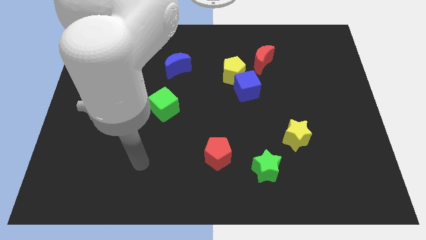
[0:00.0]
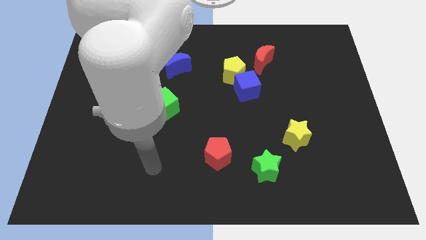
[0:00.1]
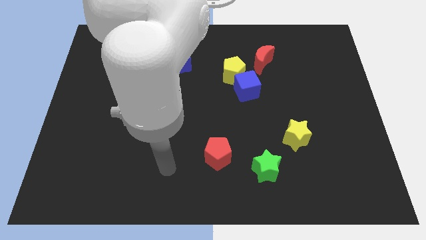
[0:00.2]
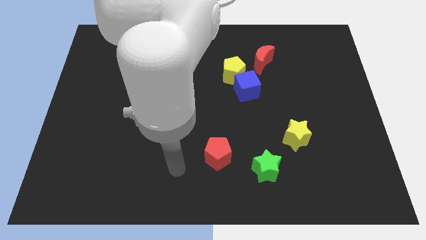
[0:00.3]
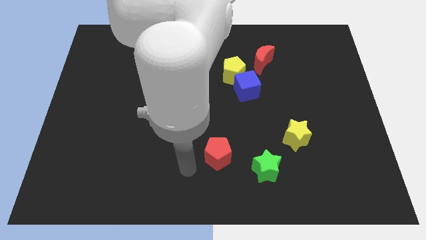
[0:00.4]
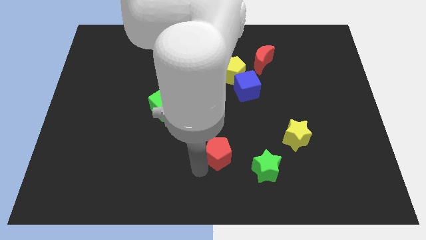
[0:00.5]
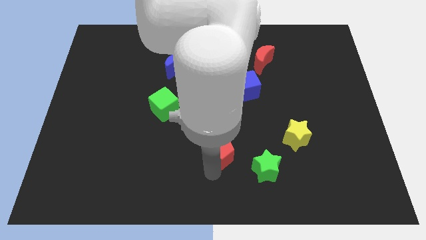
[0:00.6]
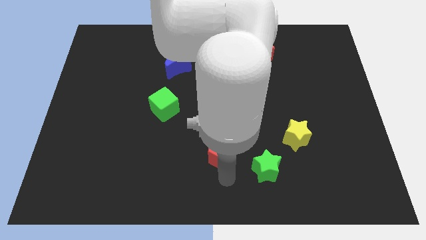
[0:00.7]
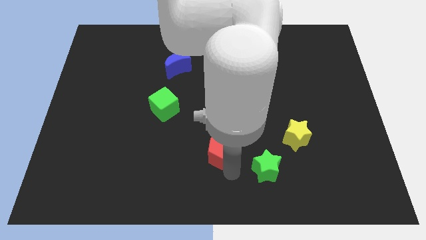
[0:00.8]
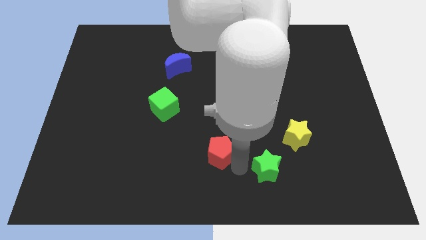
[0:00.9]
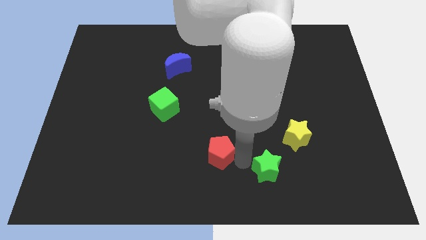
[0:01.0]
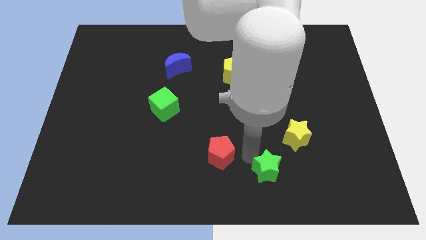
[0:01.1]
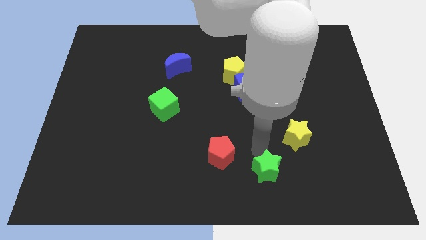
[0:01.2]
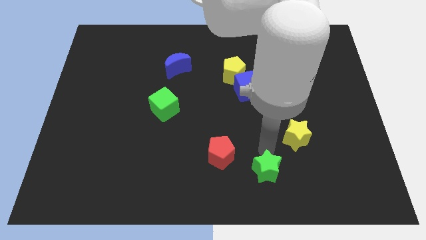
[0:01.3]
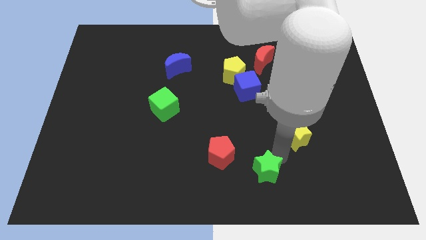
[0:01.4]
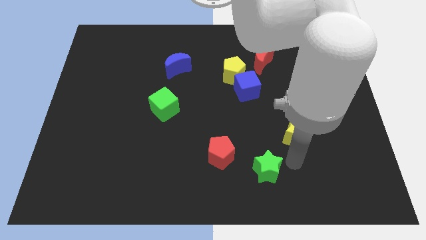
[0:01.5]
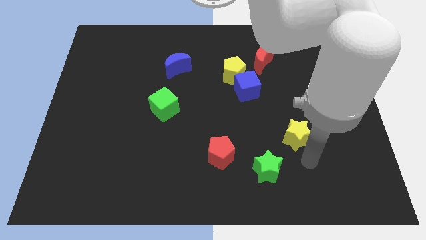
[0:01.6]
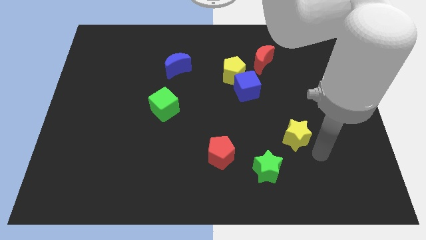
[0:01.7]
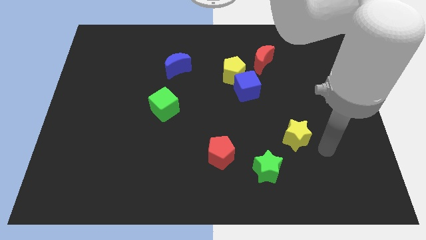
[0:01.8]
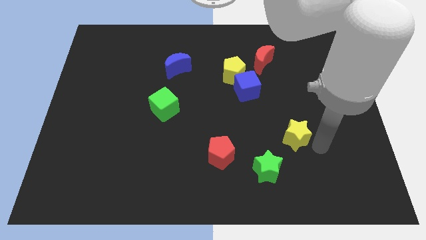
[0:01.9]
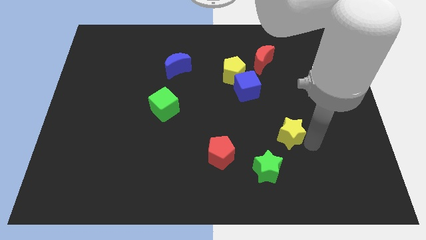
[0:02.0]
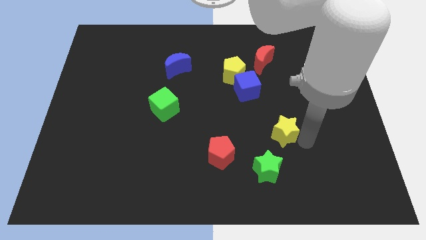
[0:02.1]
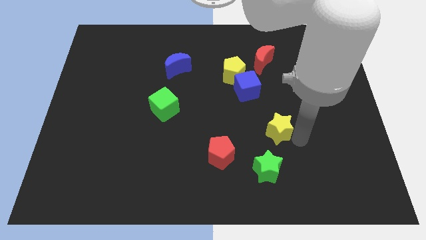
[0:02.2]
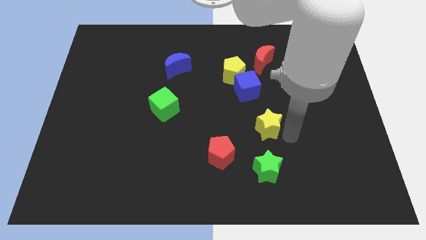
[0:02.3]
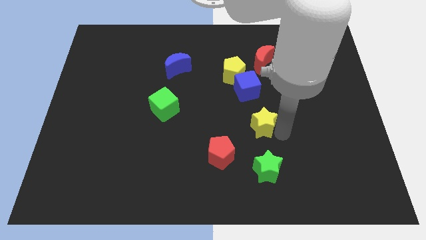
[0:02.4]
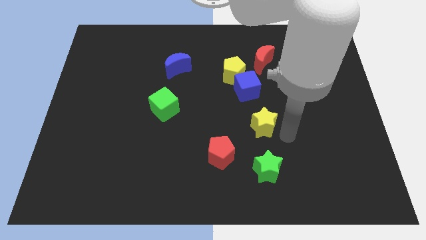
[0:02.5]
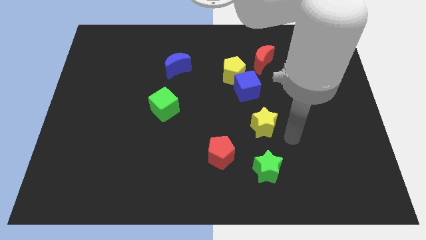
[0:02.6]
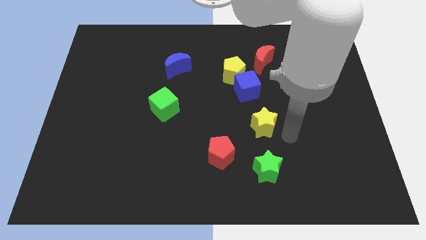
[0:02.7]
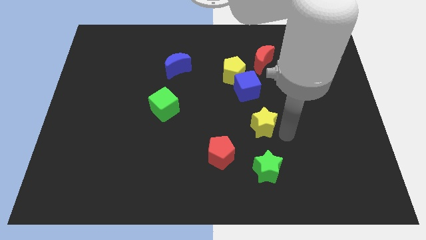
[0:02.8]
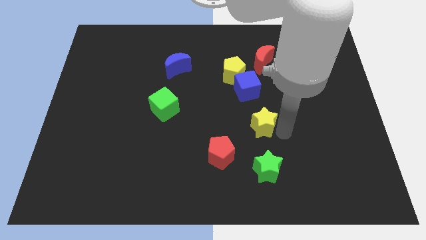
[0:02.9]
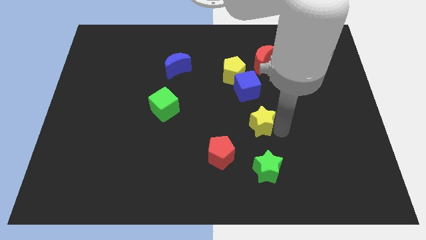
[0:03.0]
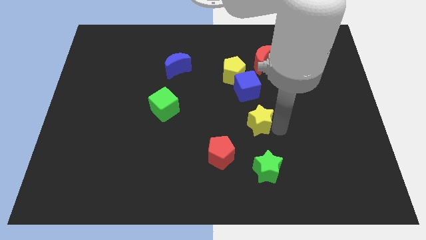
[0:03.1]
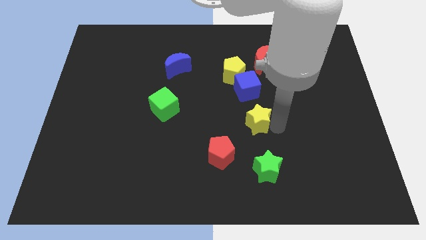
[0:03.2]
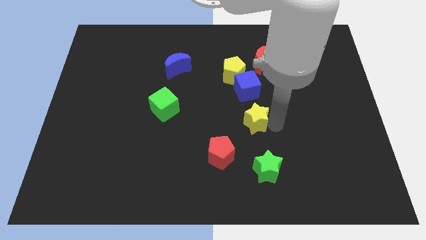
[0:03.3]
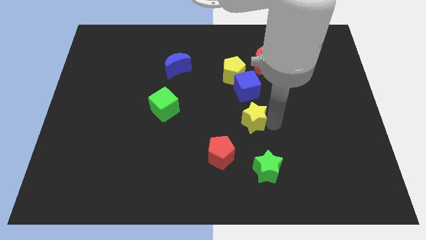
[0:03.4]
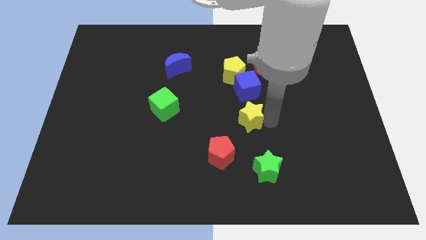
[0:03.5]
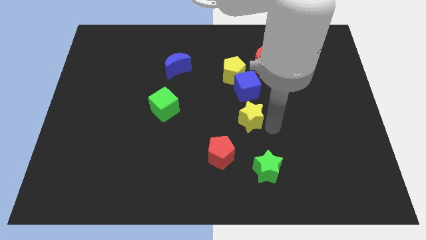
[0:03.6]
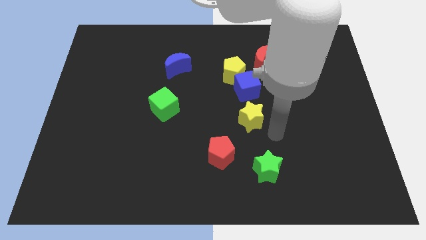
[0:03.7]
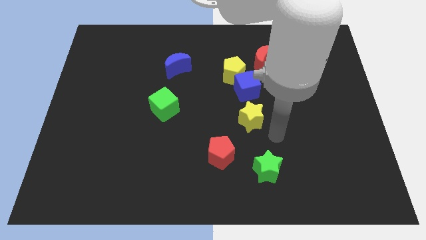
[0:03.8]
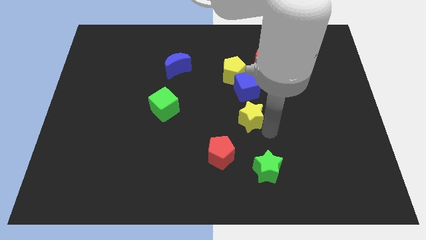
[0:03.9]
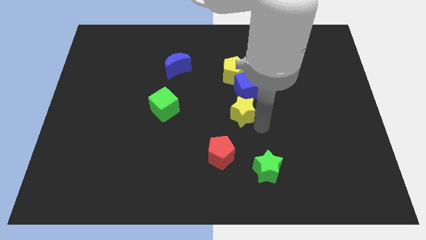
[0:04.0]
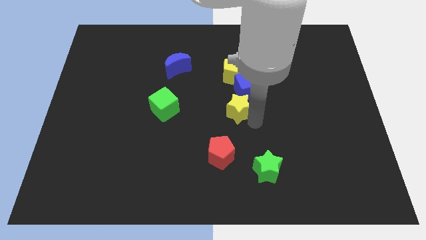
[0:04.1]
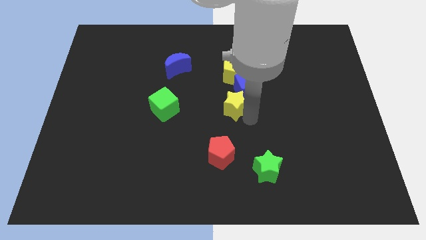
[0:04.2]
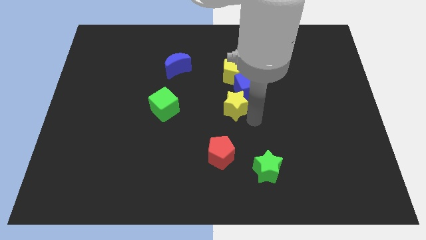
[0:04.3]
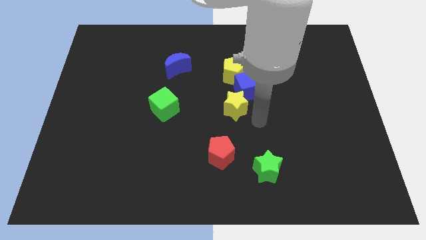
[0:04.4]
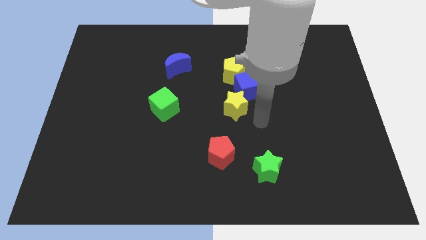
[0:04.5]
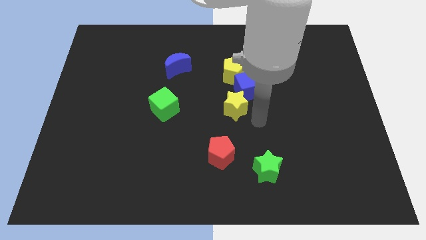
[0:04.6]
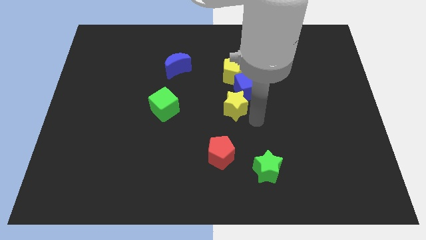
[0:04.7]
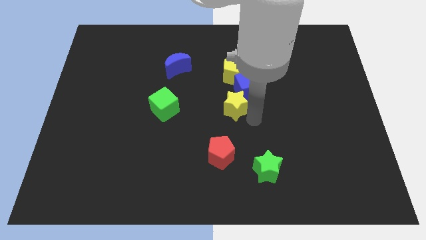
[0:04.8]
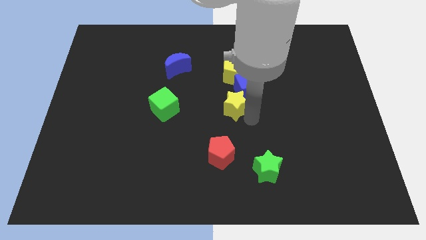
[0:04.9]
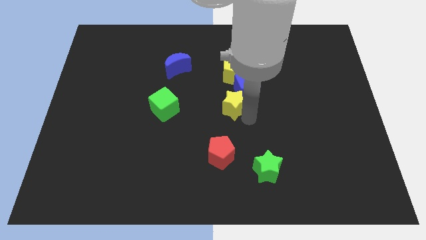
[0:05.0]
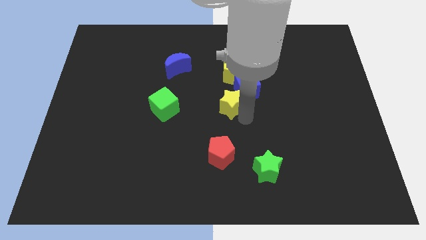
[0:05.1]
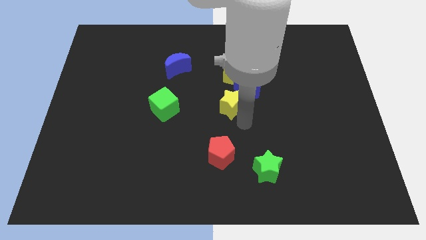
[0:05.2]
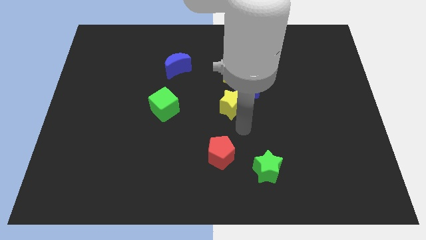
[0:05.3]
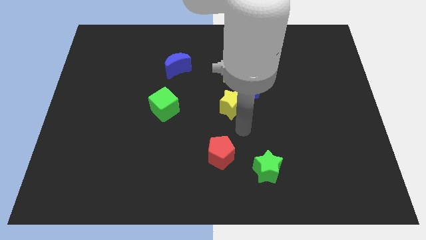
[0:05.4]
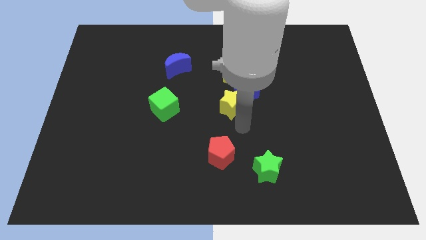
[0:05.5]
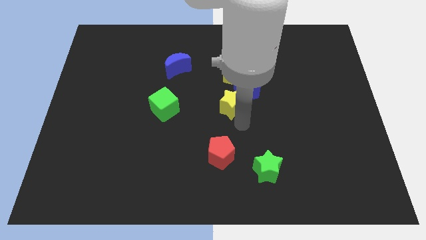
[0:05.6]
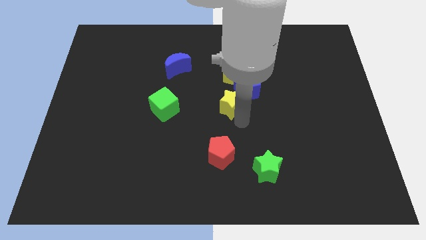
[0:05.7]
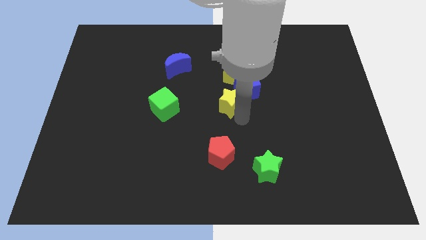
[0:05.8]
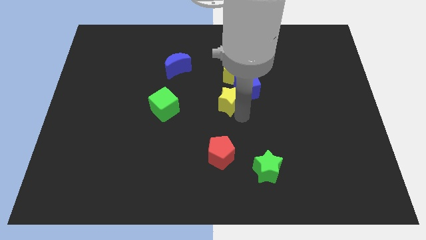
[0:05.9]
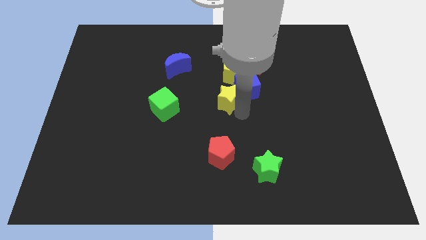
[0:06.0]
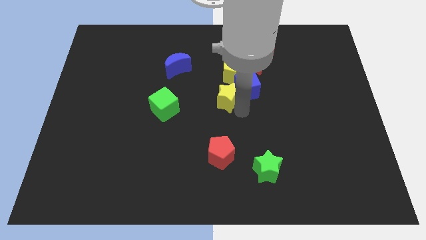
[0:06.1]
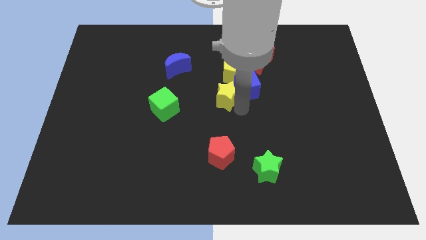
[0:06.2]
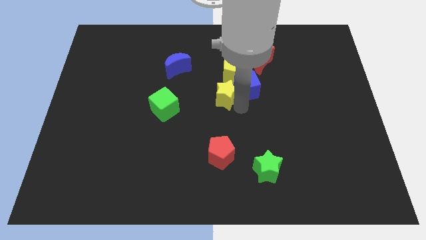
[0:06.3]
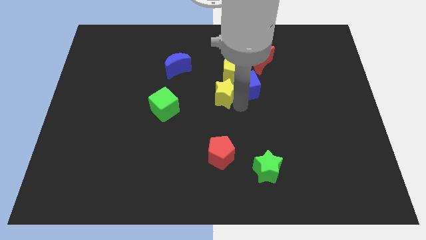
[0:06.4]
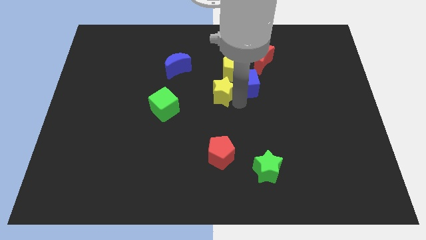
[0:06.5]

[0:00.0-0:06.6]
push the yellow star diagonally upwards and to the left

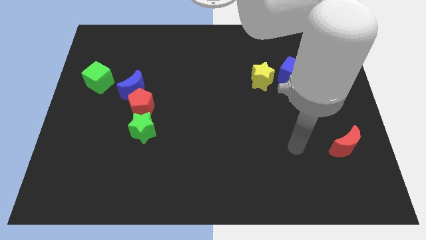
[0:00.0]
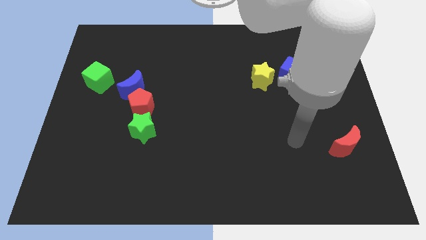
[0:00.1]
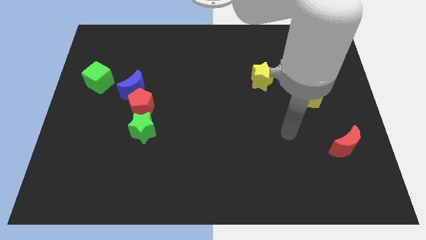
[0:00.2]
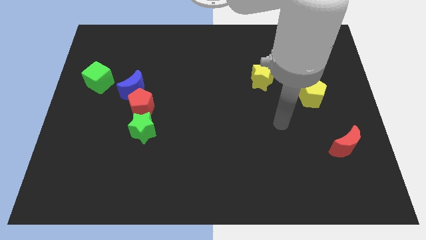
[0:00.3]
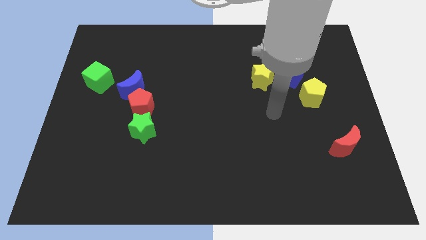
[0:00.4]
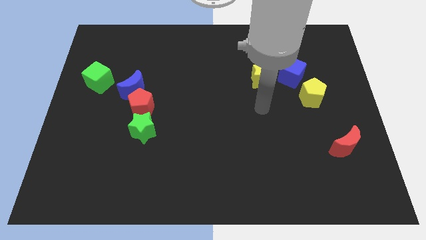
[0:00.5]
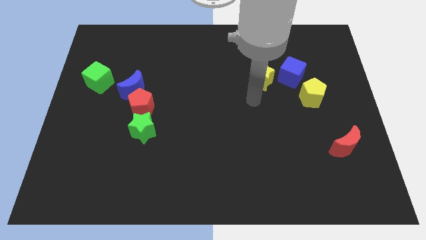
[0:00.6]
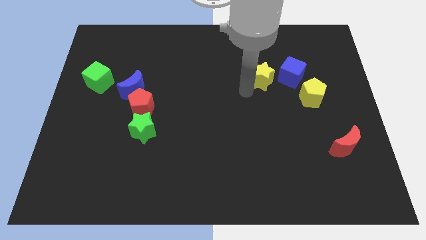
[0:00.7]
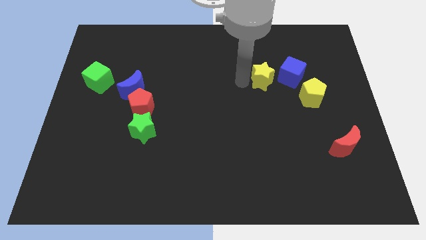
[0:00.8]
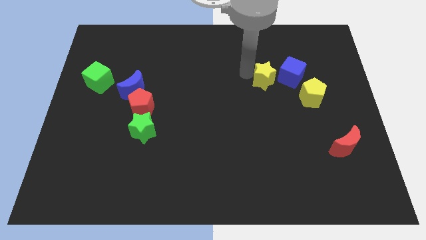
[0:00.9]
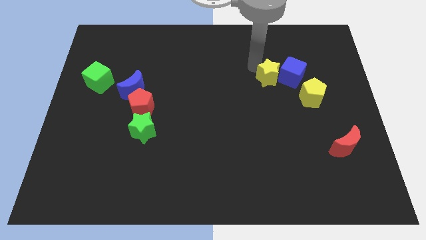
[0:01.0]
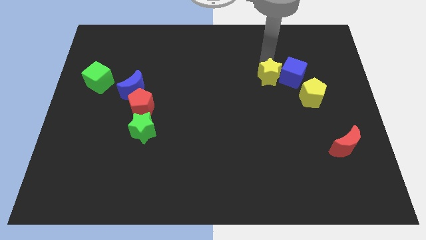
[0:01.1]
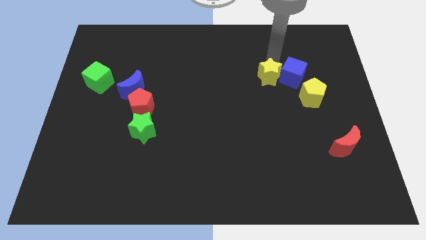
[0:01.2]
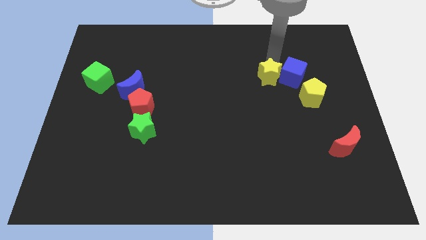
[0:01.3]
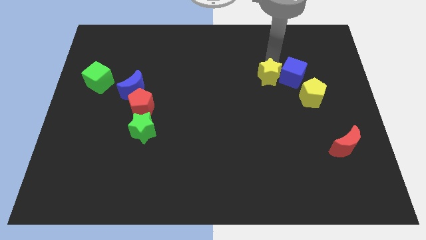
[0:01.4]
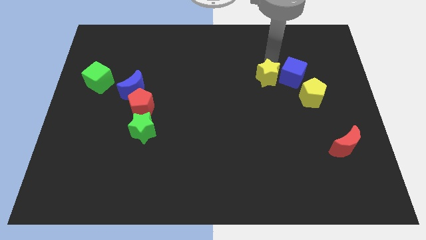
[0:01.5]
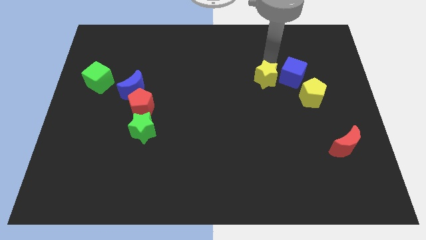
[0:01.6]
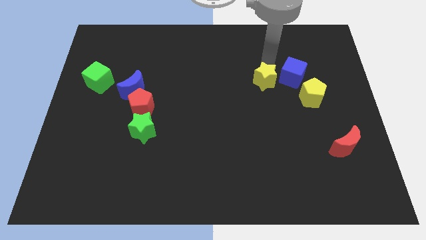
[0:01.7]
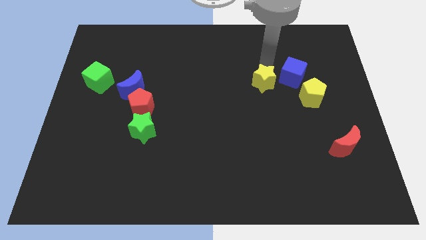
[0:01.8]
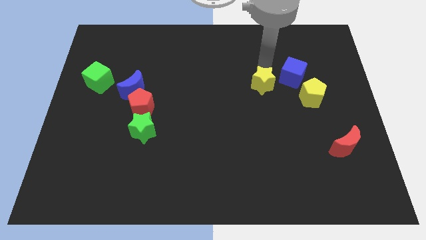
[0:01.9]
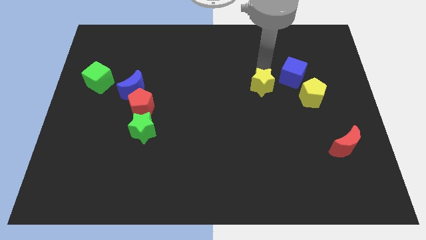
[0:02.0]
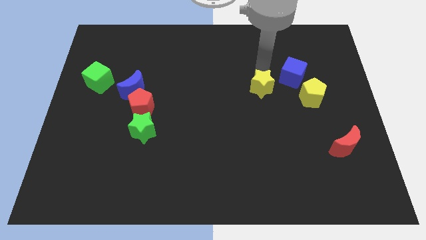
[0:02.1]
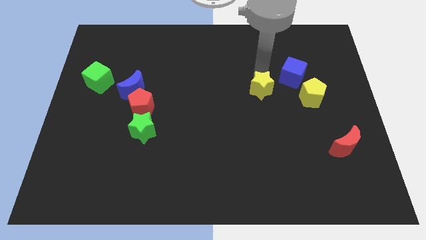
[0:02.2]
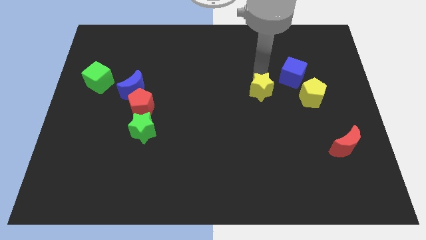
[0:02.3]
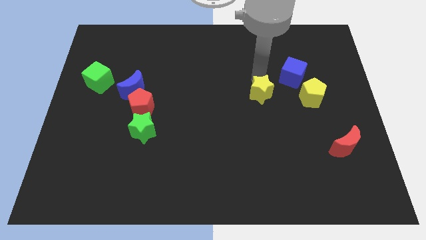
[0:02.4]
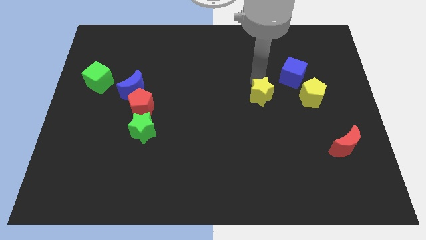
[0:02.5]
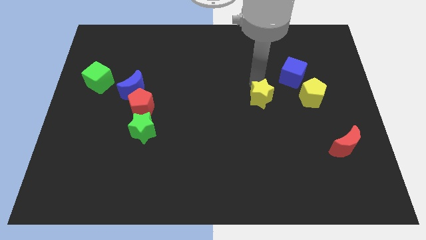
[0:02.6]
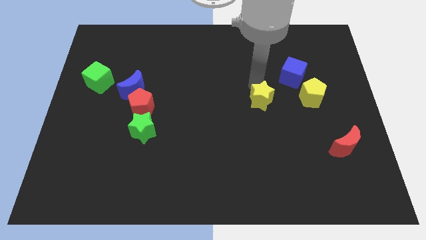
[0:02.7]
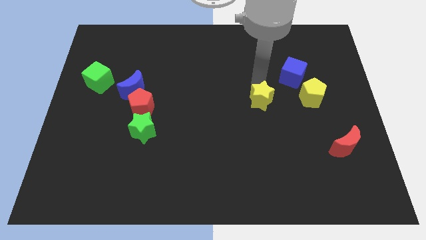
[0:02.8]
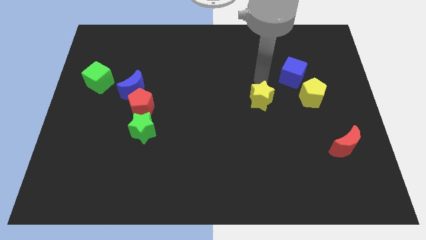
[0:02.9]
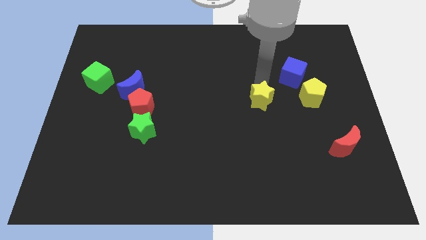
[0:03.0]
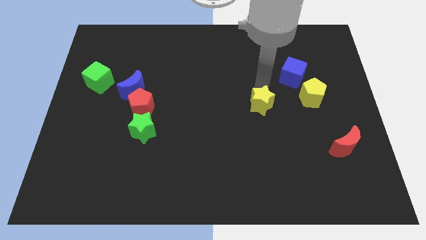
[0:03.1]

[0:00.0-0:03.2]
slightly slide the yellow star down
